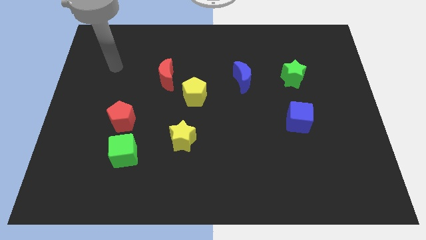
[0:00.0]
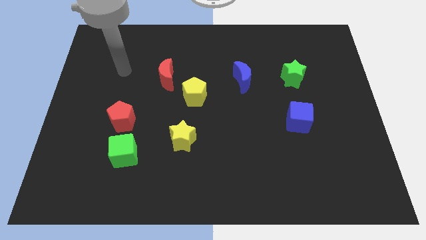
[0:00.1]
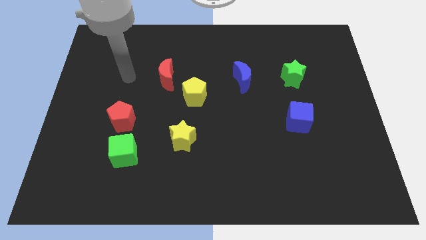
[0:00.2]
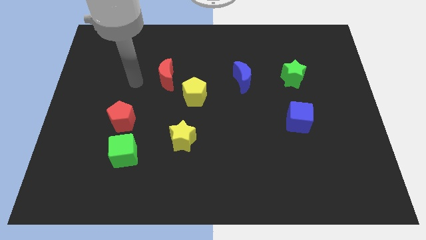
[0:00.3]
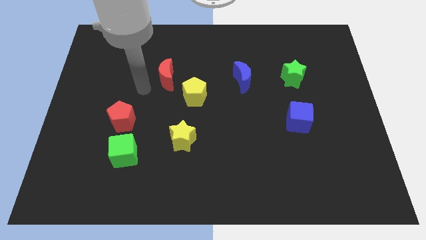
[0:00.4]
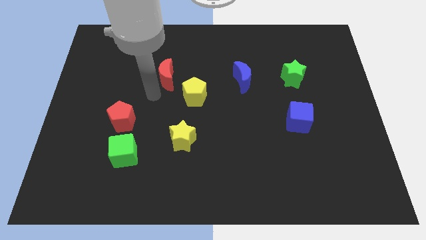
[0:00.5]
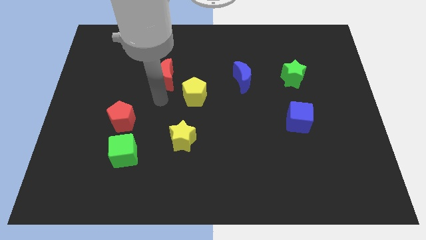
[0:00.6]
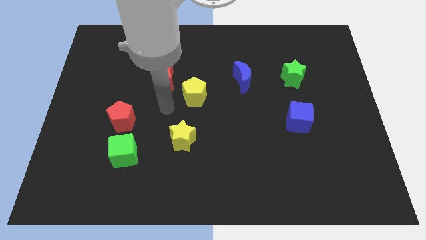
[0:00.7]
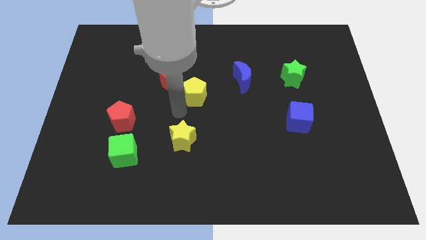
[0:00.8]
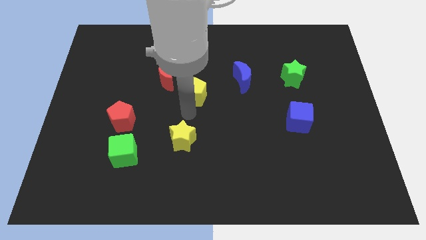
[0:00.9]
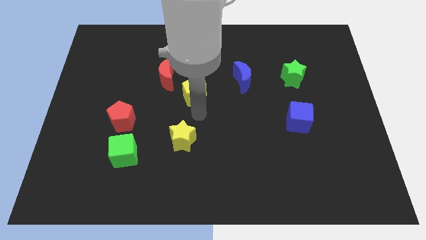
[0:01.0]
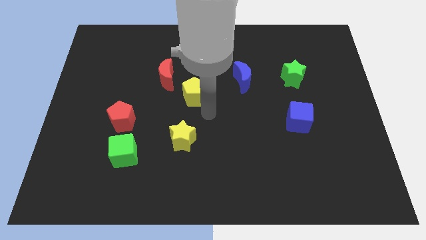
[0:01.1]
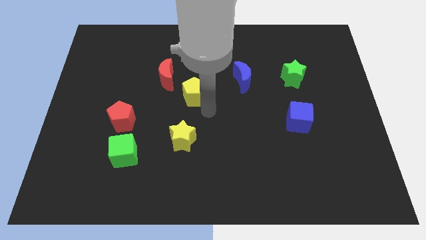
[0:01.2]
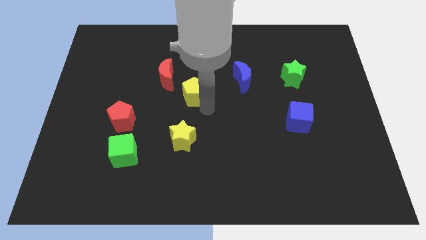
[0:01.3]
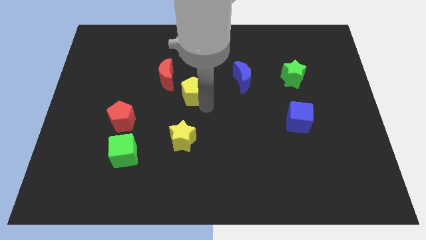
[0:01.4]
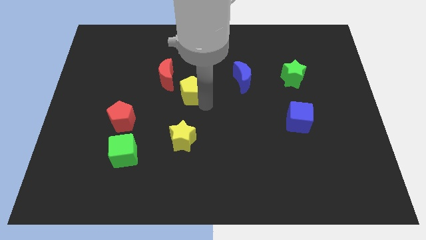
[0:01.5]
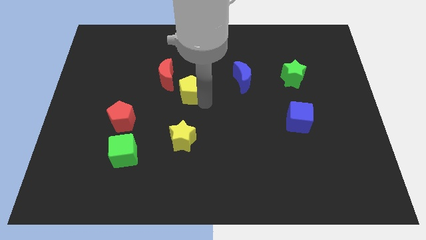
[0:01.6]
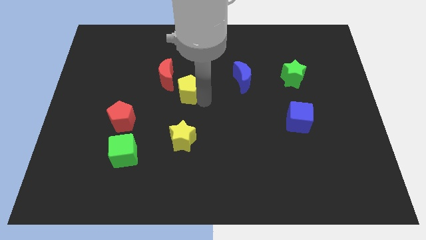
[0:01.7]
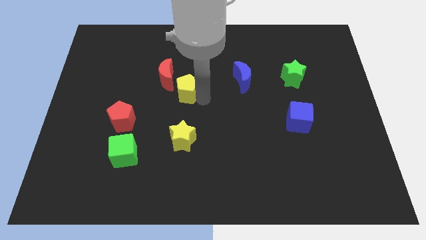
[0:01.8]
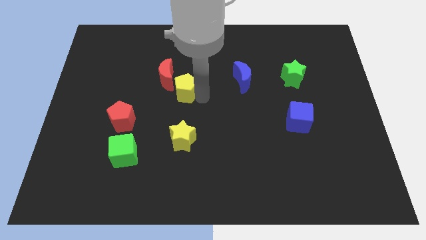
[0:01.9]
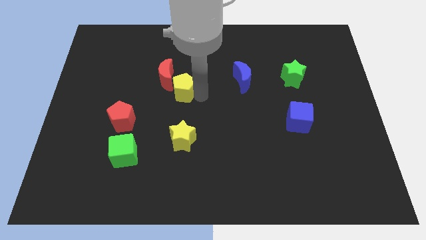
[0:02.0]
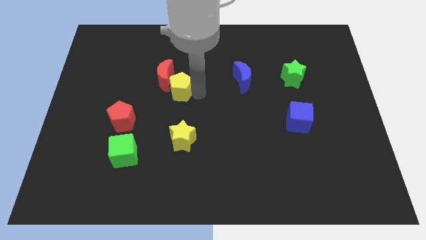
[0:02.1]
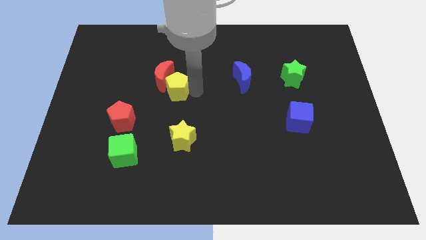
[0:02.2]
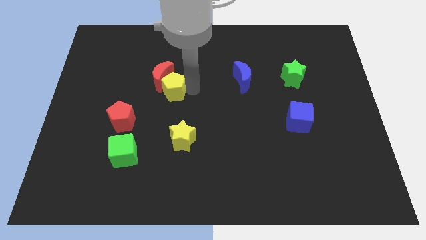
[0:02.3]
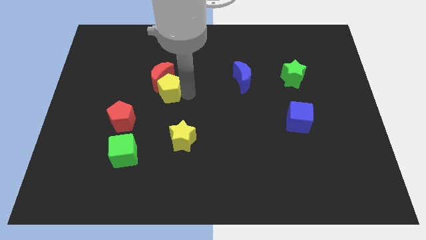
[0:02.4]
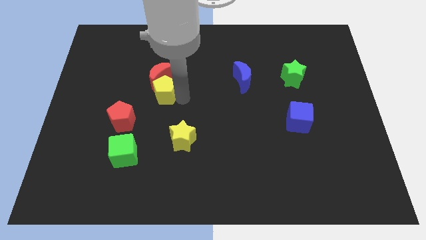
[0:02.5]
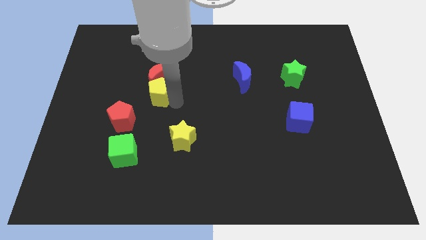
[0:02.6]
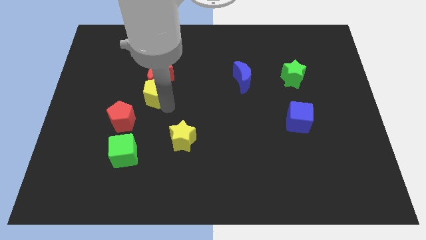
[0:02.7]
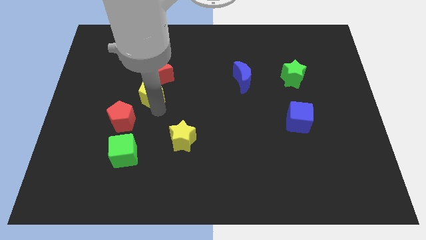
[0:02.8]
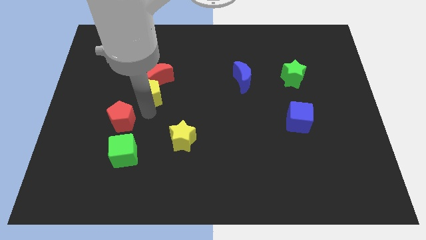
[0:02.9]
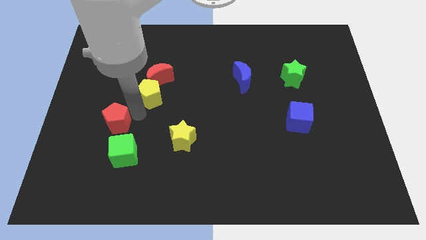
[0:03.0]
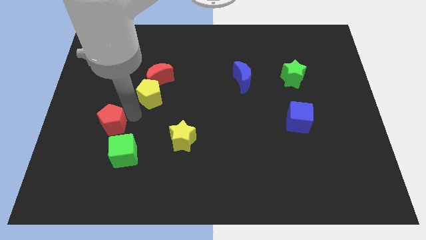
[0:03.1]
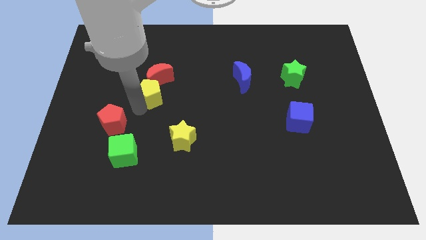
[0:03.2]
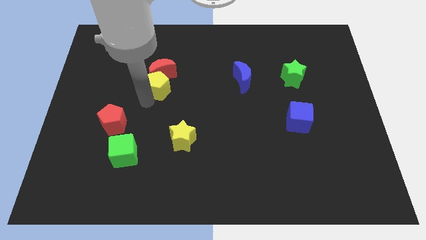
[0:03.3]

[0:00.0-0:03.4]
slide the yellow pentagon a bit diagonally upwards and to the left

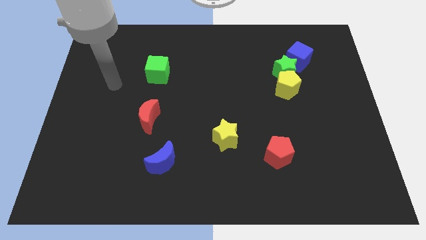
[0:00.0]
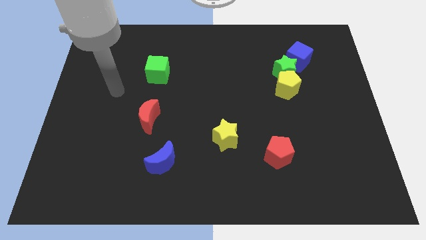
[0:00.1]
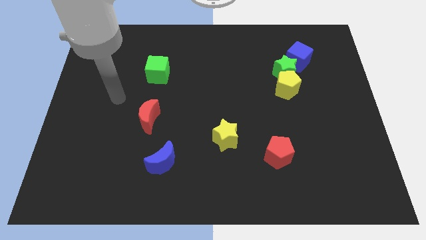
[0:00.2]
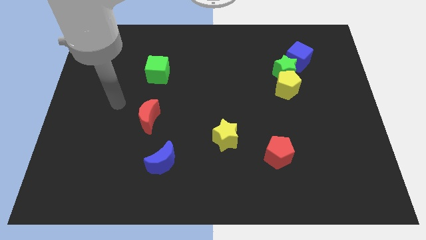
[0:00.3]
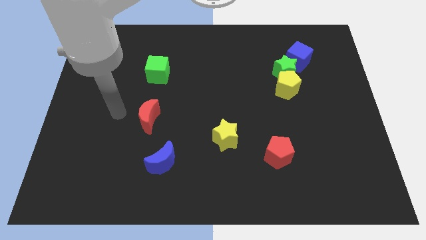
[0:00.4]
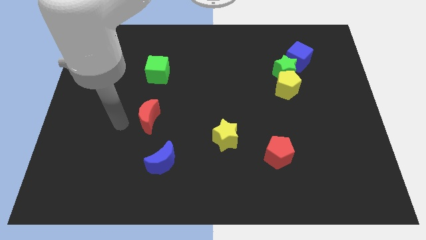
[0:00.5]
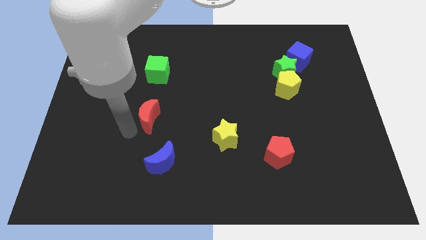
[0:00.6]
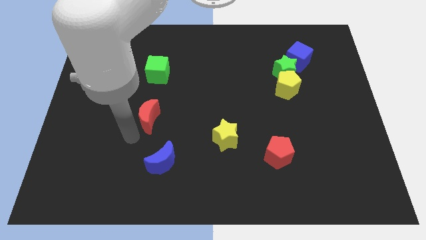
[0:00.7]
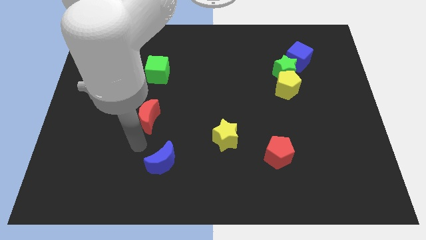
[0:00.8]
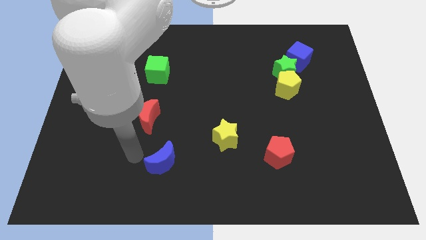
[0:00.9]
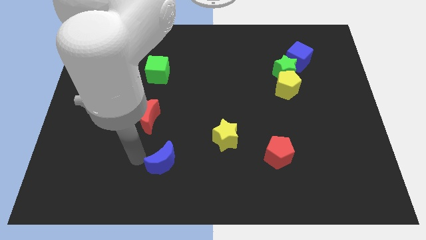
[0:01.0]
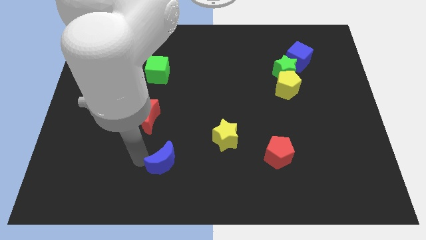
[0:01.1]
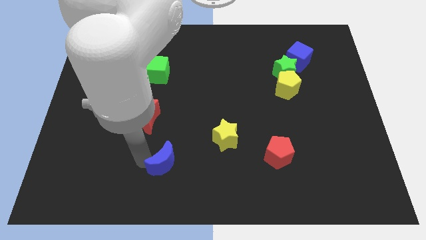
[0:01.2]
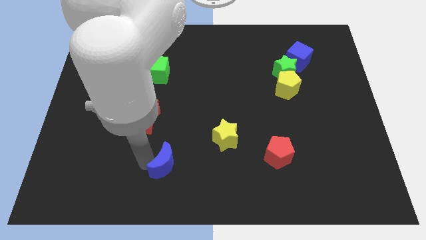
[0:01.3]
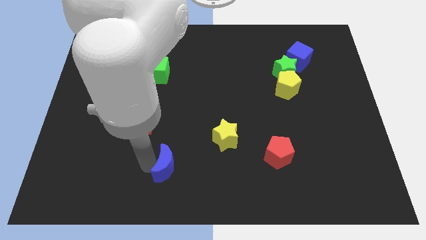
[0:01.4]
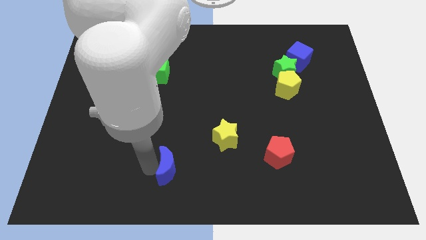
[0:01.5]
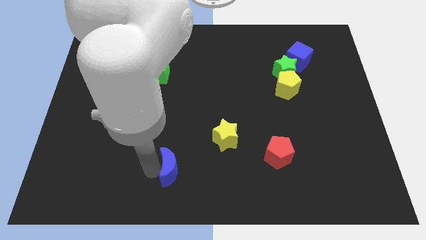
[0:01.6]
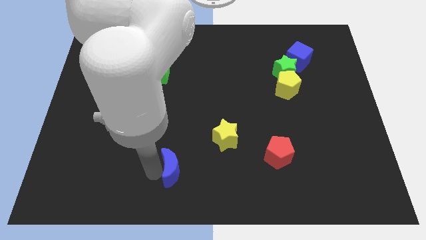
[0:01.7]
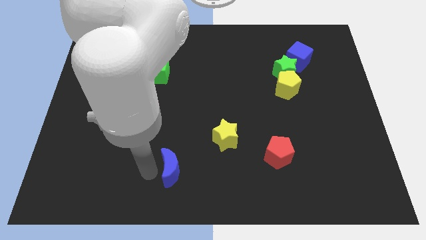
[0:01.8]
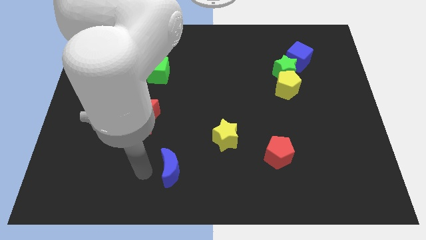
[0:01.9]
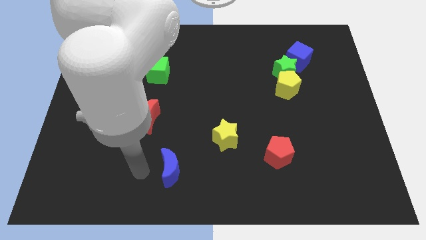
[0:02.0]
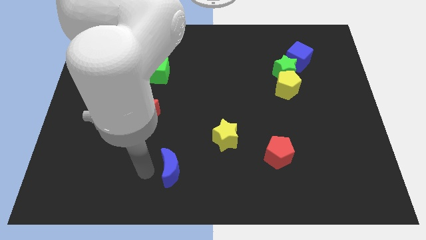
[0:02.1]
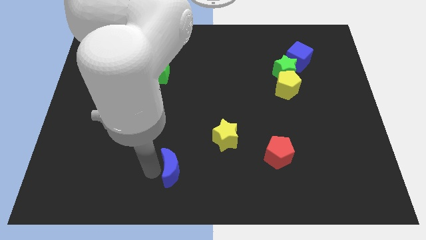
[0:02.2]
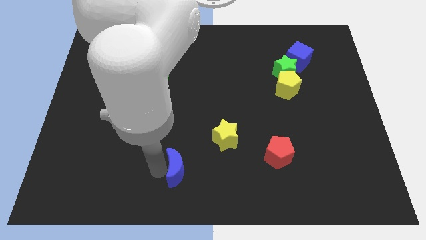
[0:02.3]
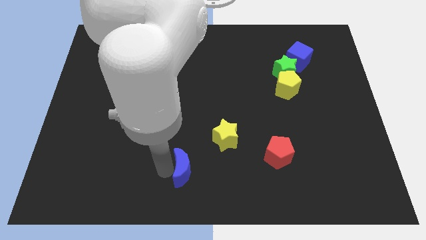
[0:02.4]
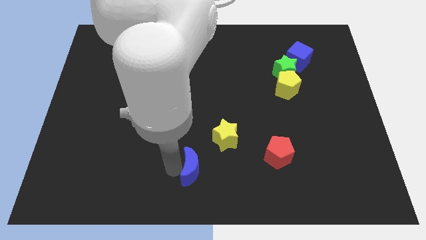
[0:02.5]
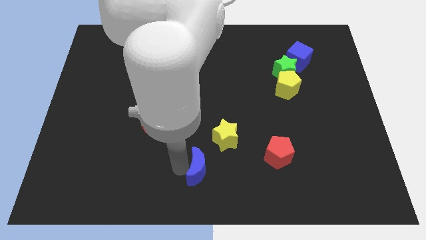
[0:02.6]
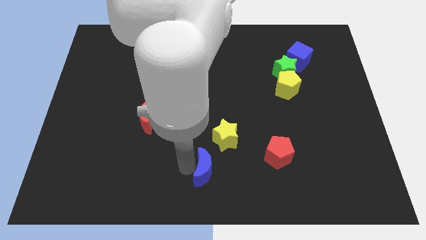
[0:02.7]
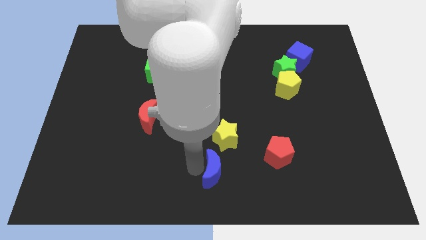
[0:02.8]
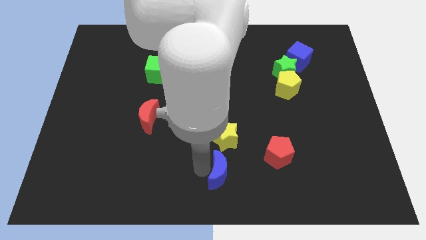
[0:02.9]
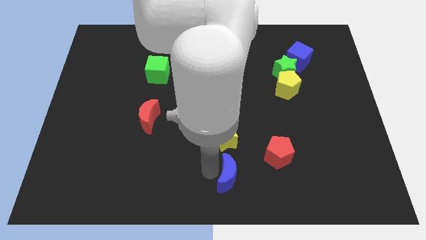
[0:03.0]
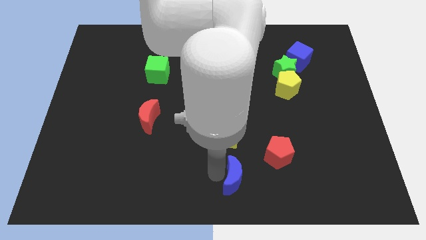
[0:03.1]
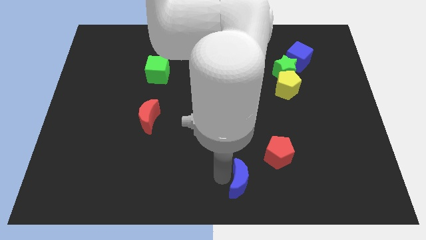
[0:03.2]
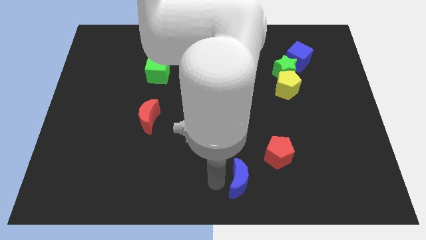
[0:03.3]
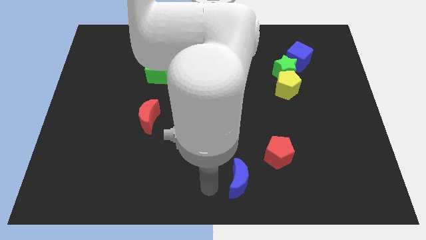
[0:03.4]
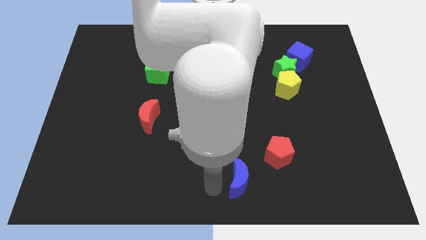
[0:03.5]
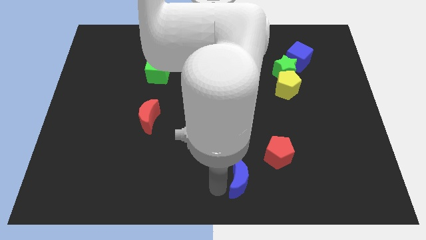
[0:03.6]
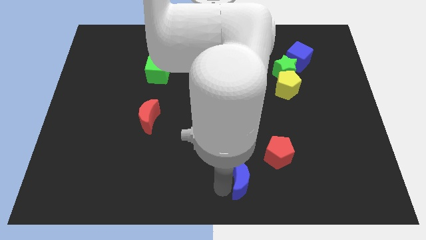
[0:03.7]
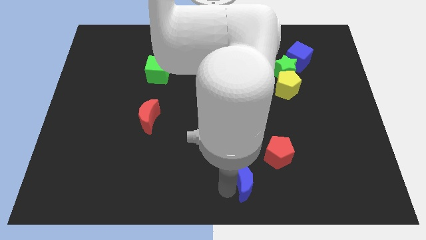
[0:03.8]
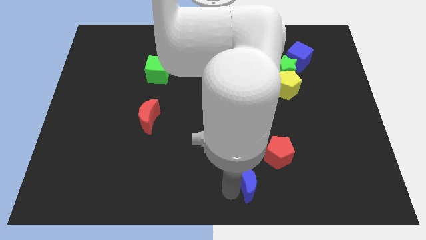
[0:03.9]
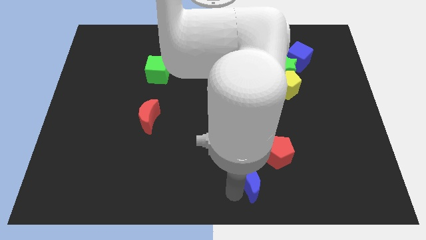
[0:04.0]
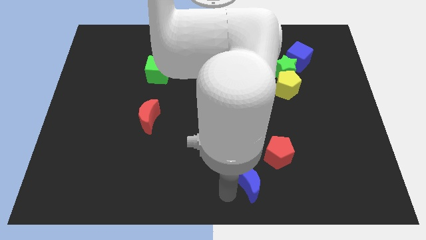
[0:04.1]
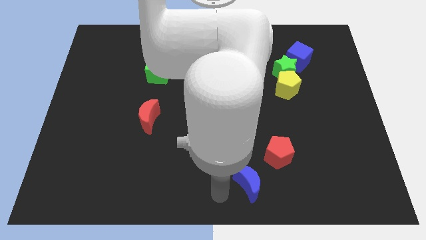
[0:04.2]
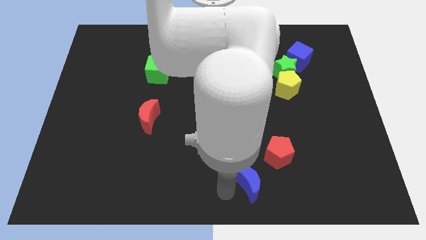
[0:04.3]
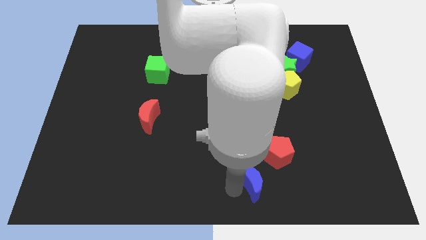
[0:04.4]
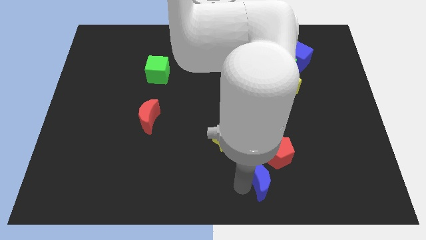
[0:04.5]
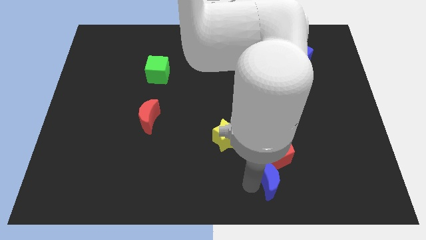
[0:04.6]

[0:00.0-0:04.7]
slide the blue moon to the right
